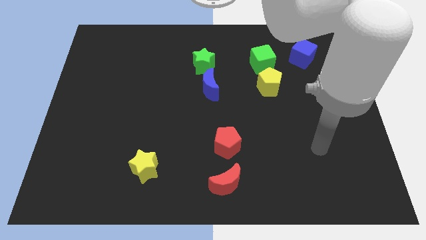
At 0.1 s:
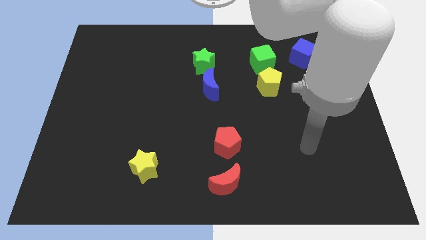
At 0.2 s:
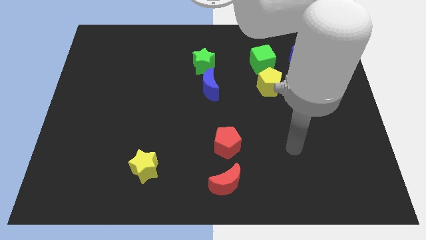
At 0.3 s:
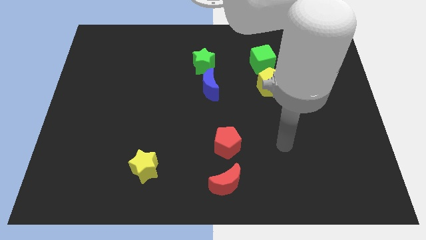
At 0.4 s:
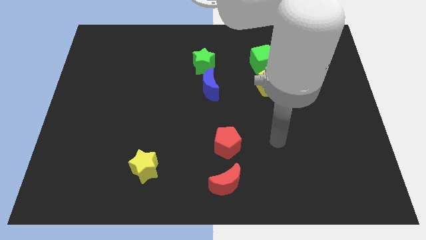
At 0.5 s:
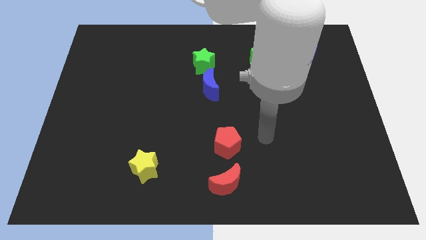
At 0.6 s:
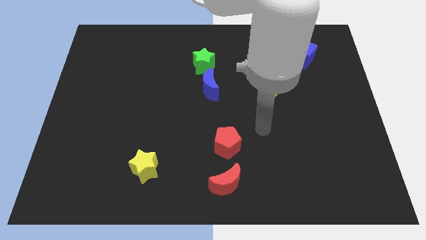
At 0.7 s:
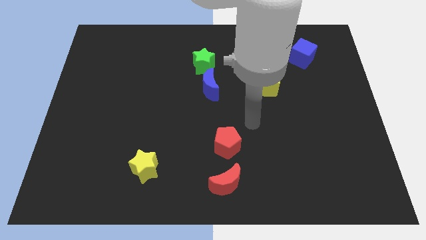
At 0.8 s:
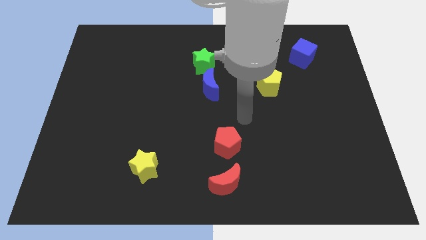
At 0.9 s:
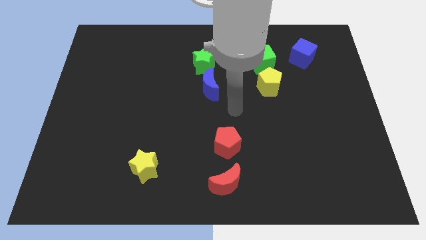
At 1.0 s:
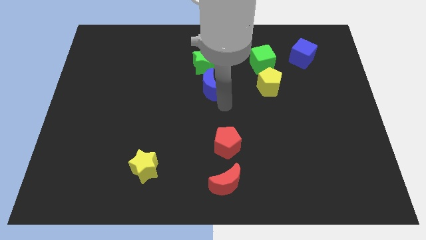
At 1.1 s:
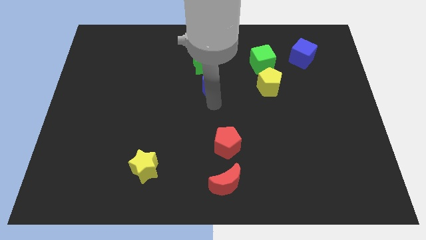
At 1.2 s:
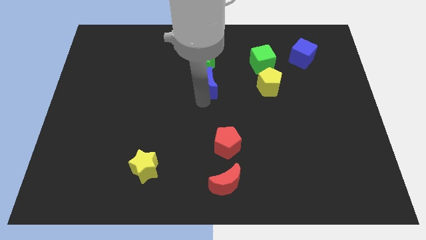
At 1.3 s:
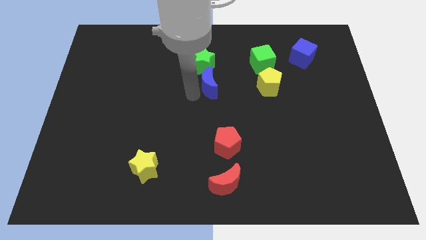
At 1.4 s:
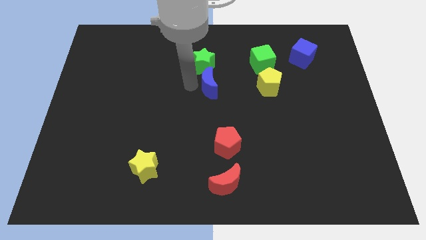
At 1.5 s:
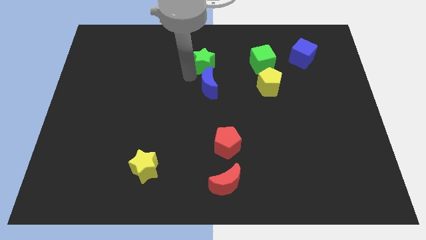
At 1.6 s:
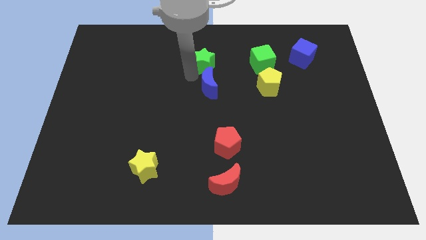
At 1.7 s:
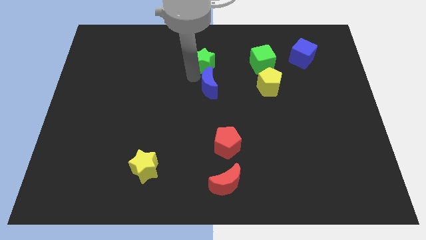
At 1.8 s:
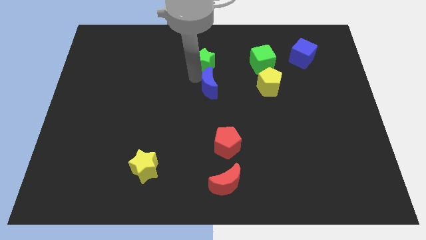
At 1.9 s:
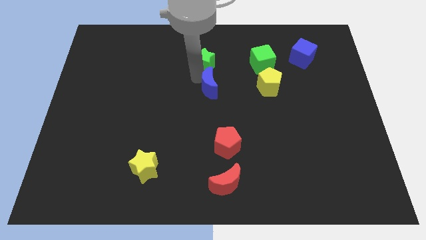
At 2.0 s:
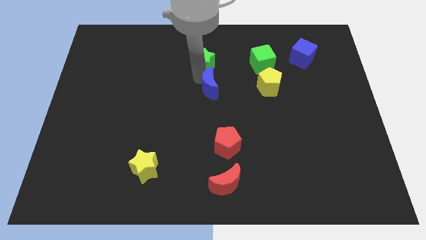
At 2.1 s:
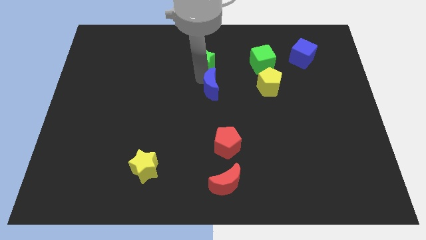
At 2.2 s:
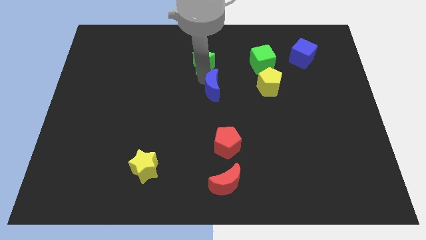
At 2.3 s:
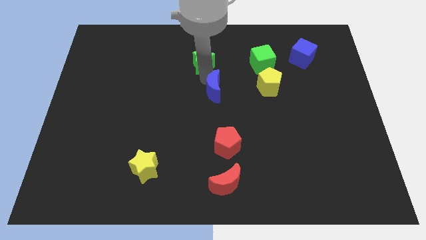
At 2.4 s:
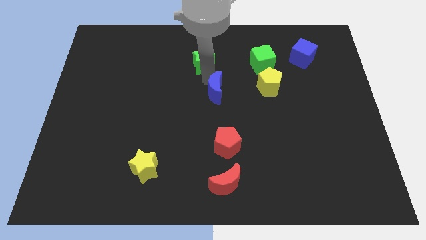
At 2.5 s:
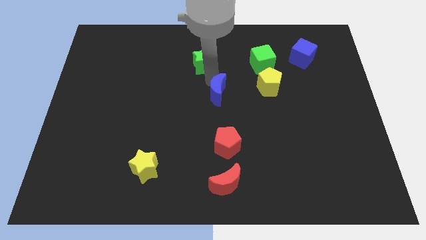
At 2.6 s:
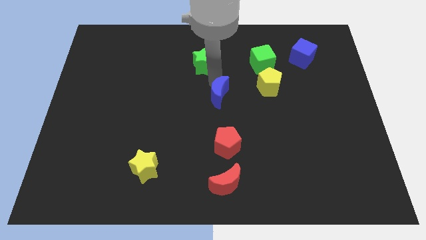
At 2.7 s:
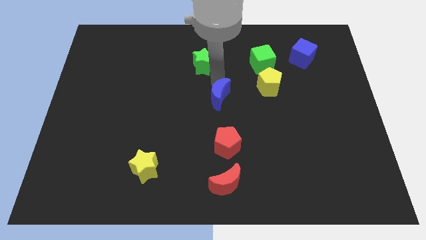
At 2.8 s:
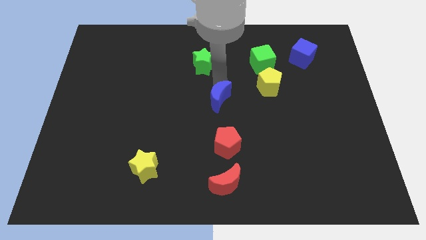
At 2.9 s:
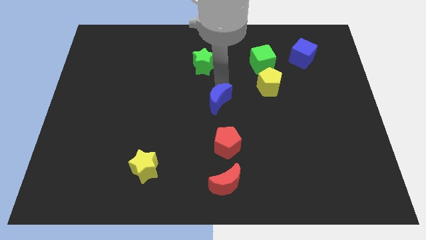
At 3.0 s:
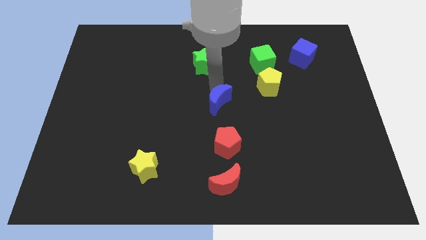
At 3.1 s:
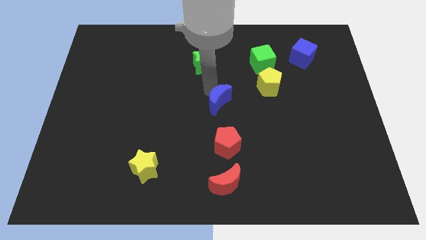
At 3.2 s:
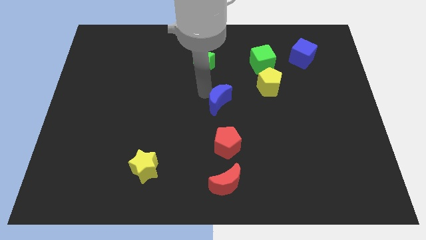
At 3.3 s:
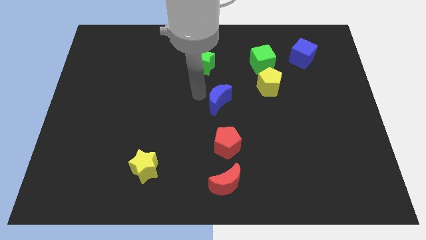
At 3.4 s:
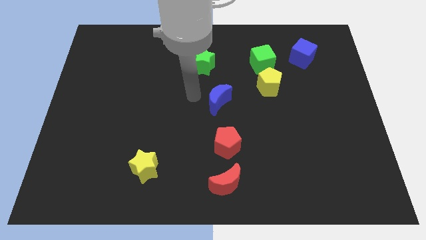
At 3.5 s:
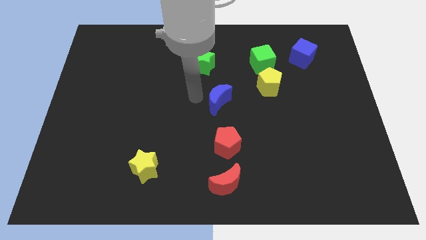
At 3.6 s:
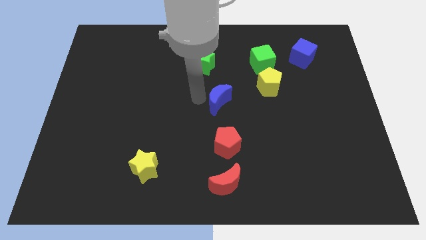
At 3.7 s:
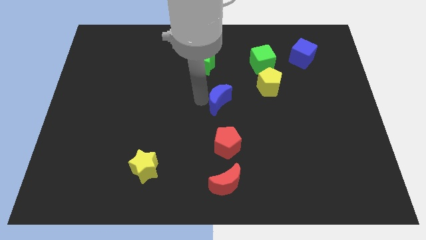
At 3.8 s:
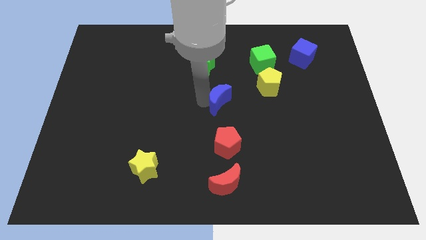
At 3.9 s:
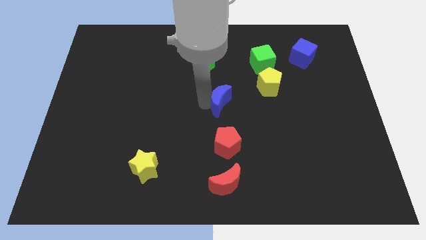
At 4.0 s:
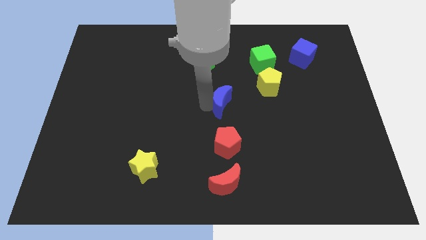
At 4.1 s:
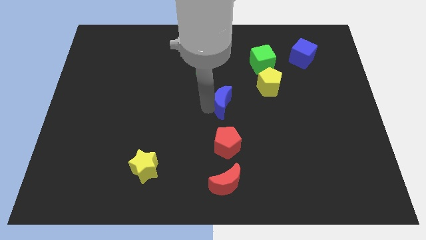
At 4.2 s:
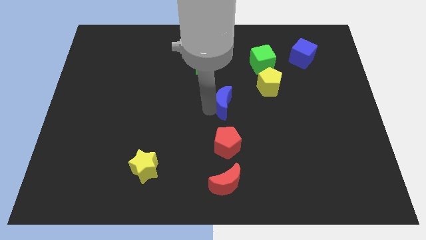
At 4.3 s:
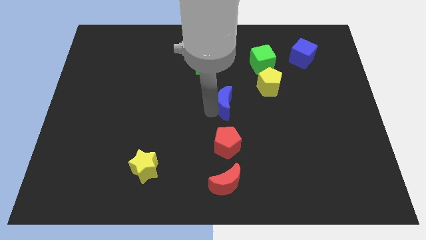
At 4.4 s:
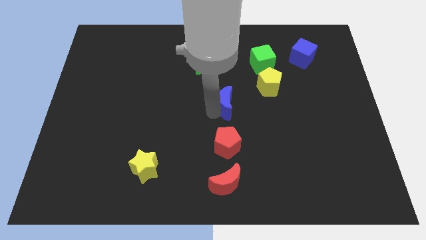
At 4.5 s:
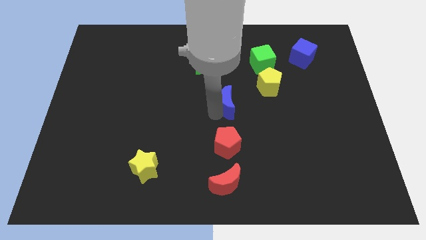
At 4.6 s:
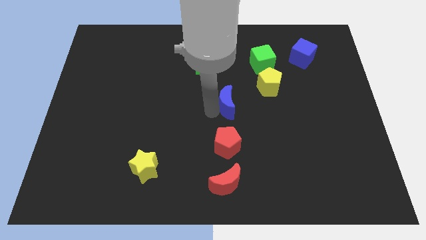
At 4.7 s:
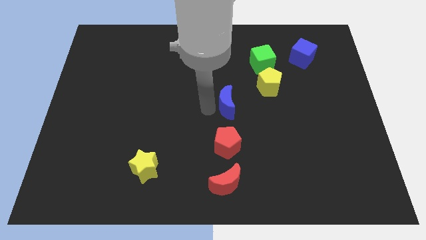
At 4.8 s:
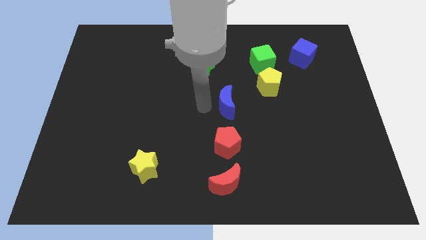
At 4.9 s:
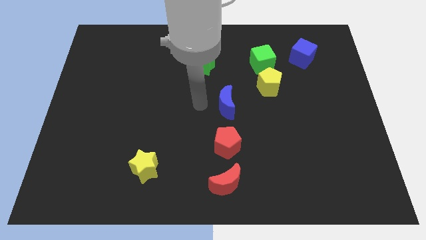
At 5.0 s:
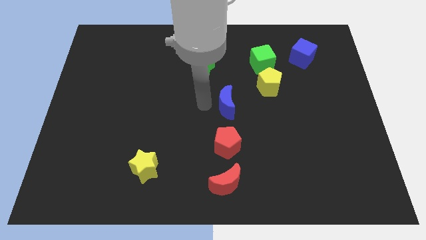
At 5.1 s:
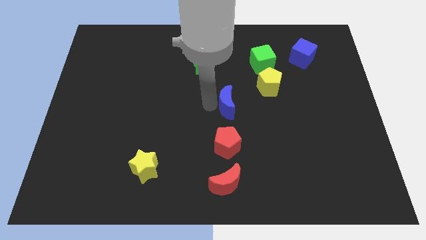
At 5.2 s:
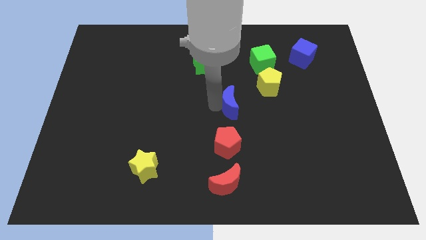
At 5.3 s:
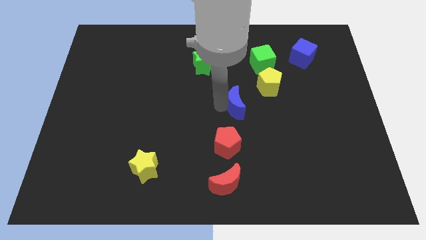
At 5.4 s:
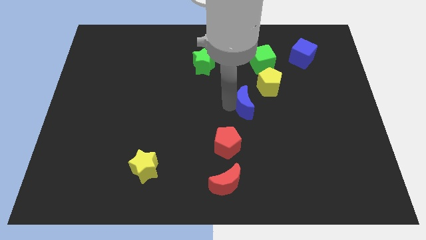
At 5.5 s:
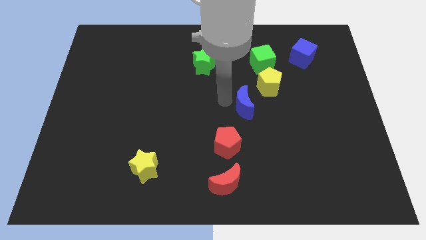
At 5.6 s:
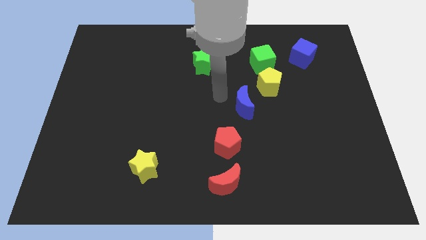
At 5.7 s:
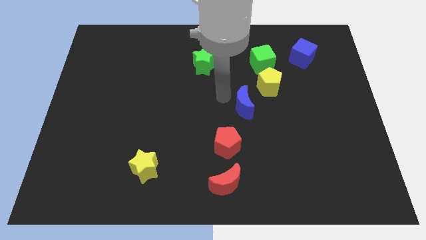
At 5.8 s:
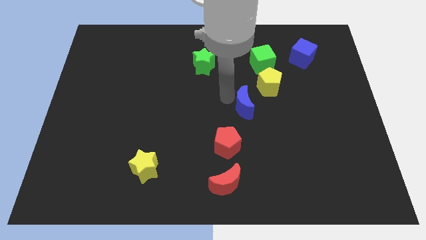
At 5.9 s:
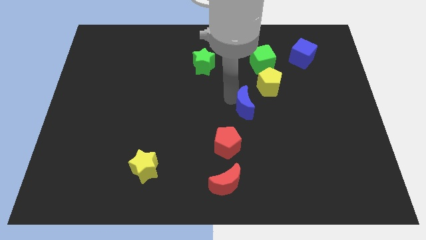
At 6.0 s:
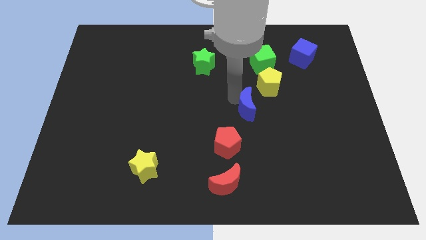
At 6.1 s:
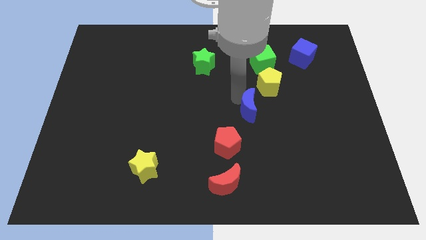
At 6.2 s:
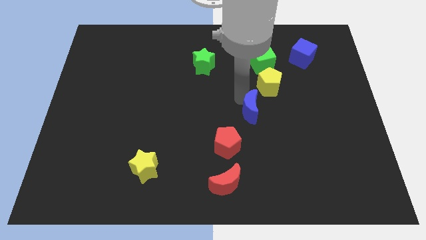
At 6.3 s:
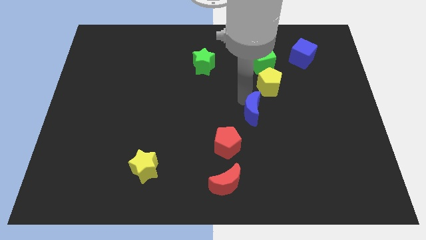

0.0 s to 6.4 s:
move the blue moon below the yellow pentagon

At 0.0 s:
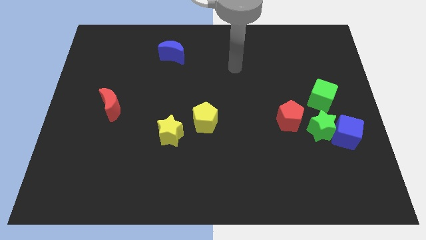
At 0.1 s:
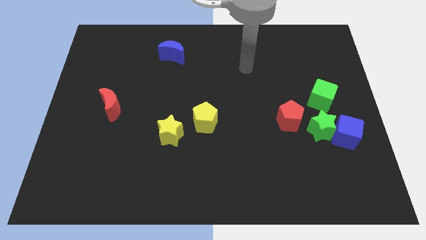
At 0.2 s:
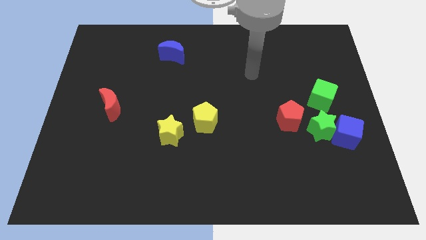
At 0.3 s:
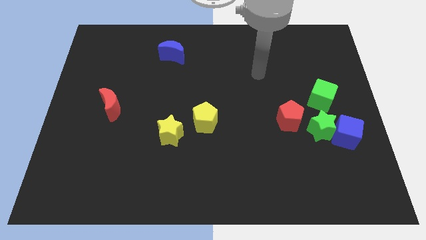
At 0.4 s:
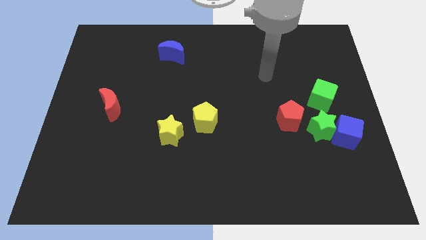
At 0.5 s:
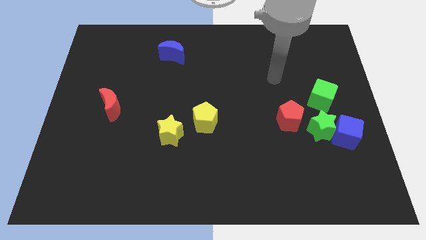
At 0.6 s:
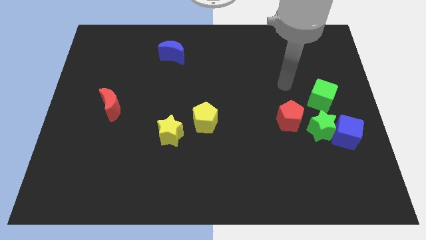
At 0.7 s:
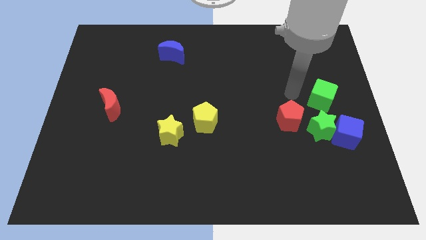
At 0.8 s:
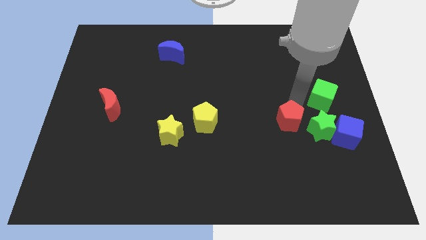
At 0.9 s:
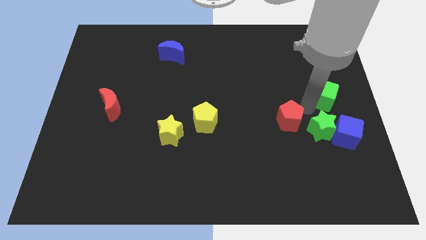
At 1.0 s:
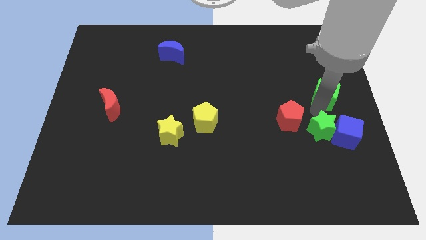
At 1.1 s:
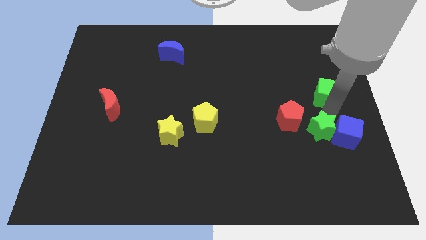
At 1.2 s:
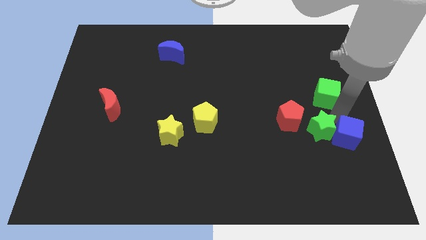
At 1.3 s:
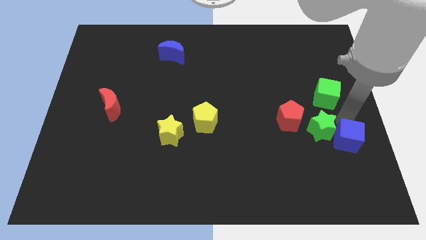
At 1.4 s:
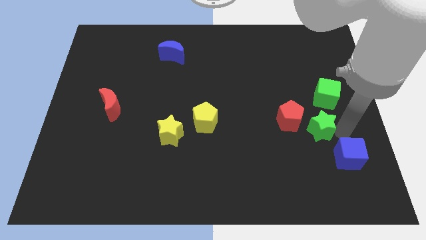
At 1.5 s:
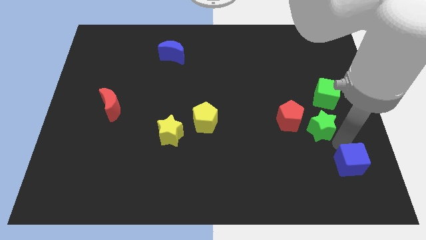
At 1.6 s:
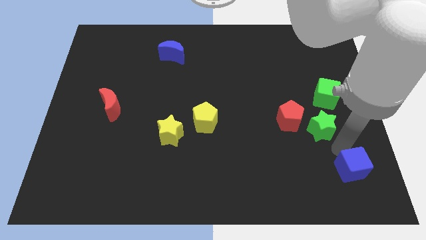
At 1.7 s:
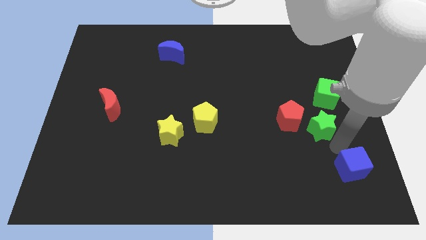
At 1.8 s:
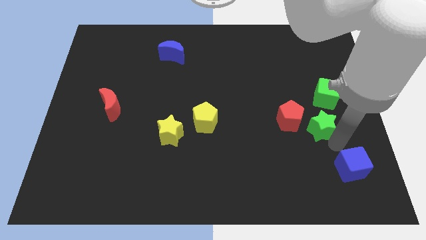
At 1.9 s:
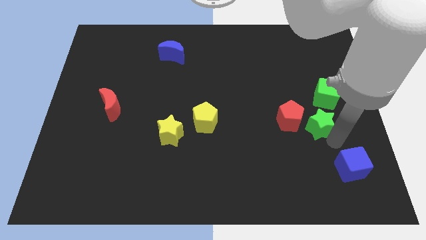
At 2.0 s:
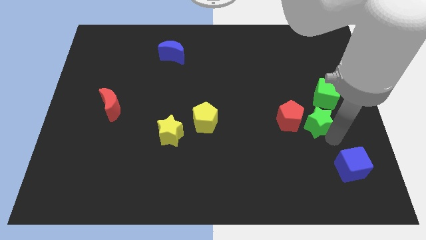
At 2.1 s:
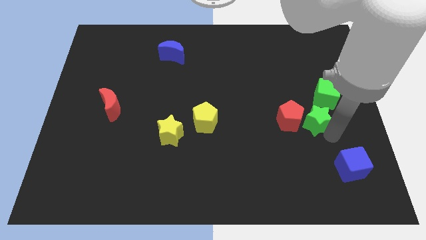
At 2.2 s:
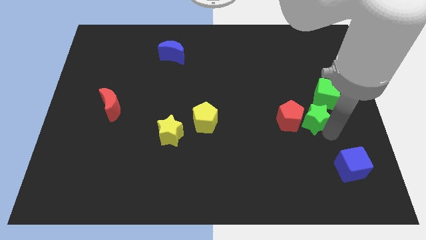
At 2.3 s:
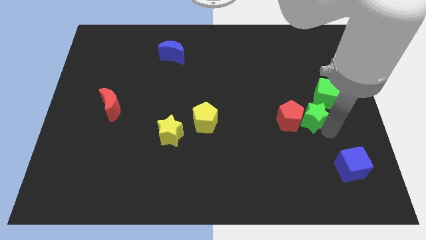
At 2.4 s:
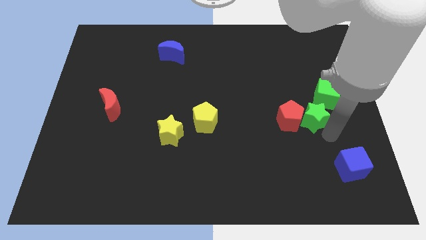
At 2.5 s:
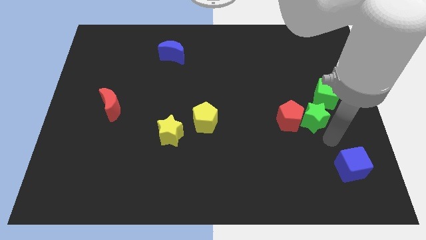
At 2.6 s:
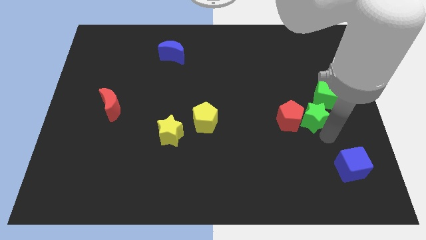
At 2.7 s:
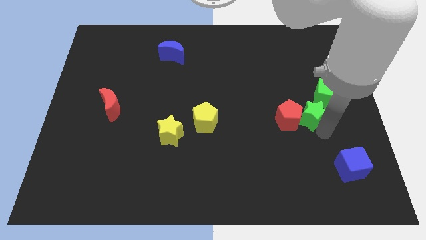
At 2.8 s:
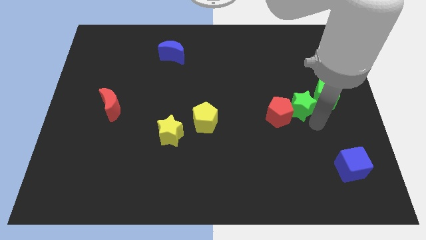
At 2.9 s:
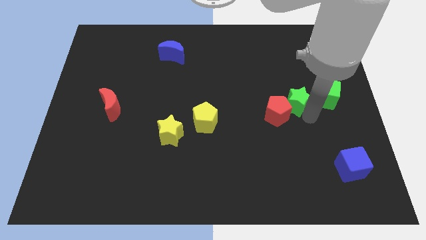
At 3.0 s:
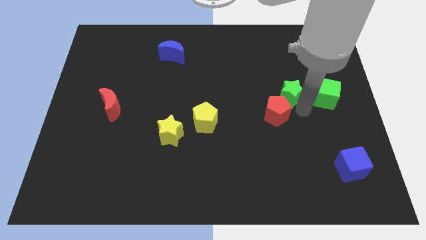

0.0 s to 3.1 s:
push the green star to the top side of the red pentagon
